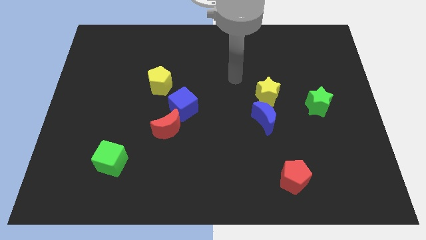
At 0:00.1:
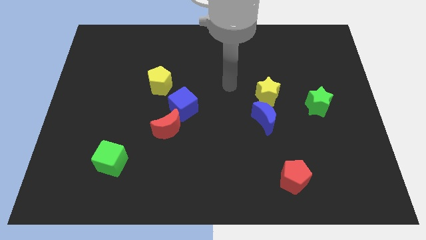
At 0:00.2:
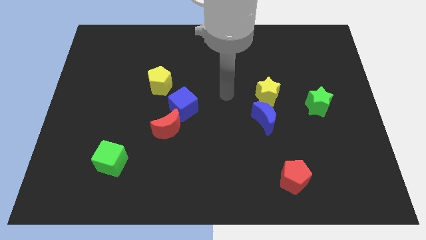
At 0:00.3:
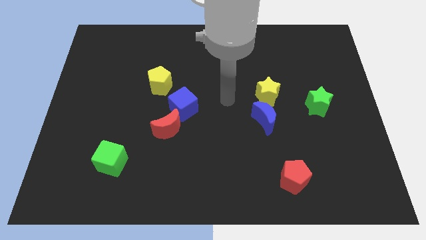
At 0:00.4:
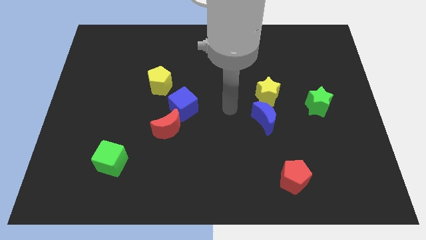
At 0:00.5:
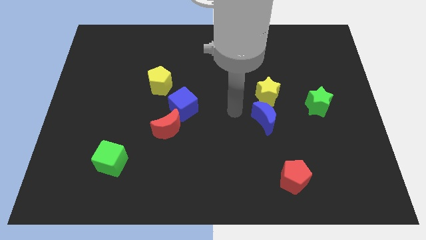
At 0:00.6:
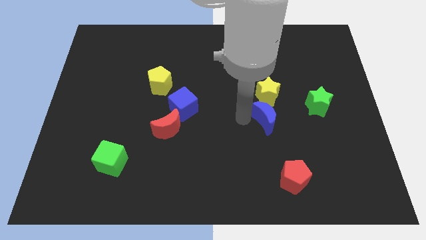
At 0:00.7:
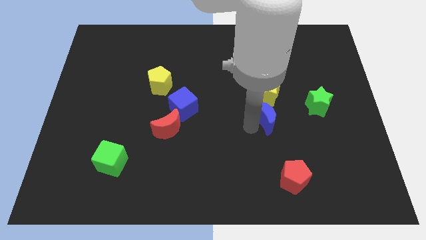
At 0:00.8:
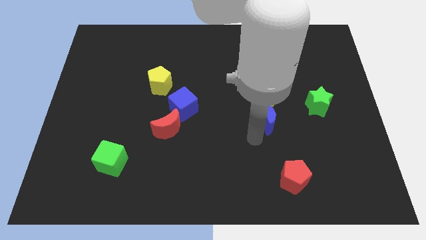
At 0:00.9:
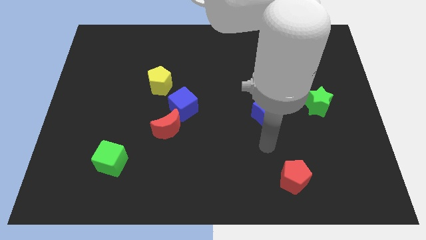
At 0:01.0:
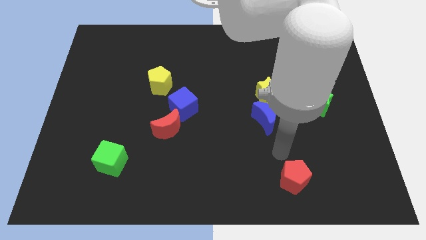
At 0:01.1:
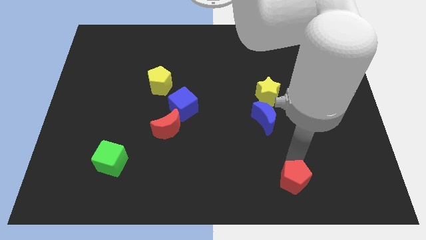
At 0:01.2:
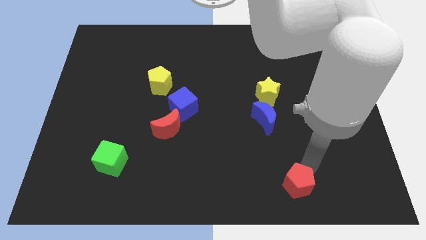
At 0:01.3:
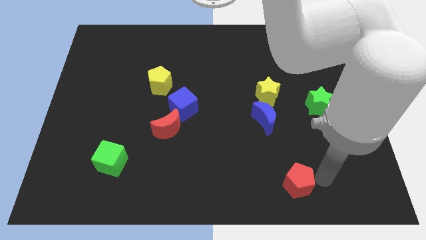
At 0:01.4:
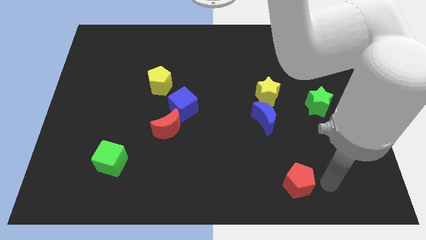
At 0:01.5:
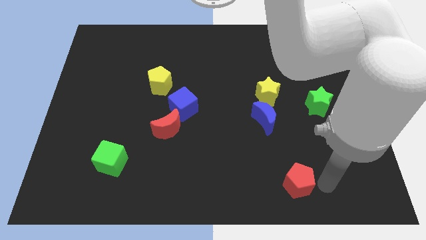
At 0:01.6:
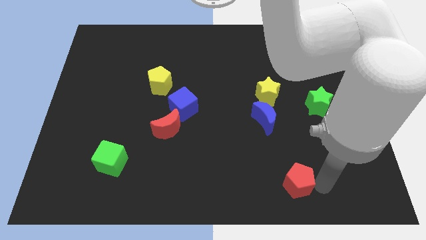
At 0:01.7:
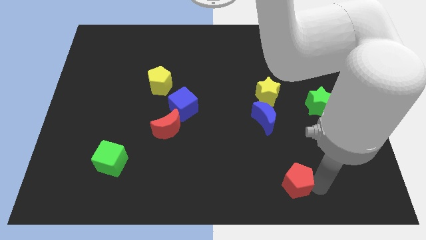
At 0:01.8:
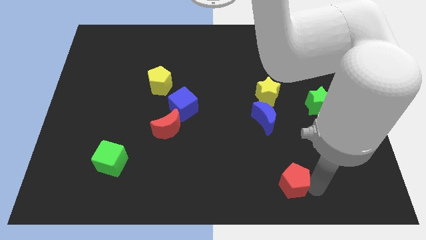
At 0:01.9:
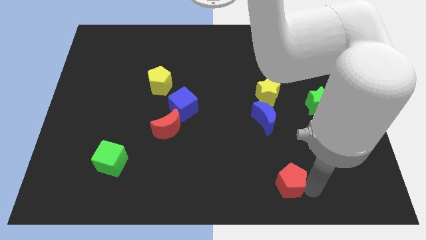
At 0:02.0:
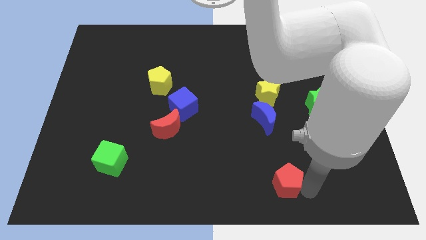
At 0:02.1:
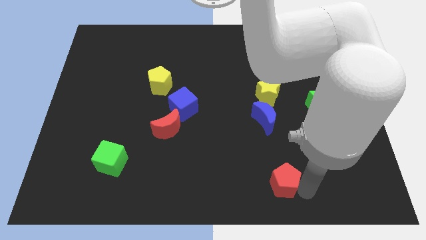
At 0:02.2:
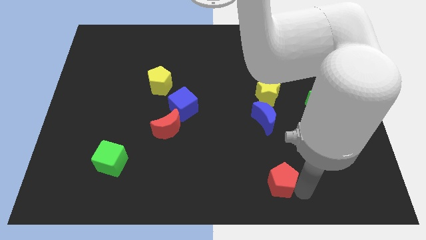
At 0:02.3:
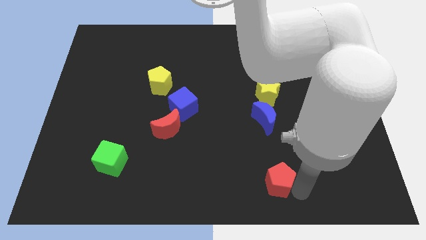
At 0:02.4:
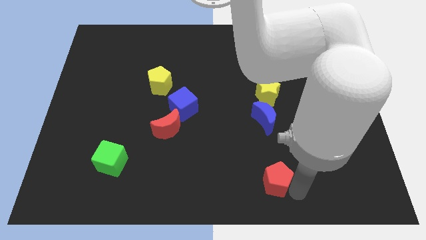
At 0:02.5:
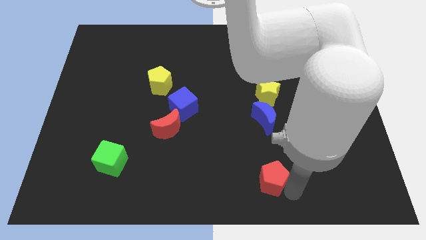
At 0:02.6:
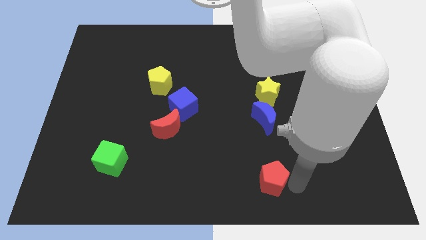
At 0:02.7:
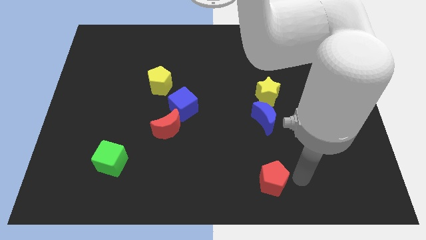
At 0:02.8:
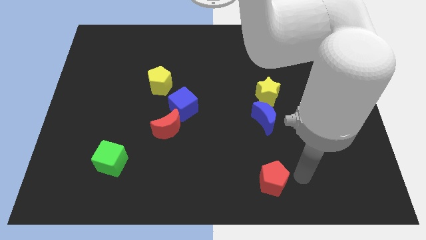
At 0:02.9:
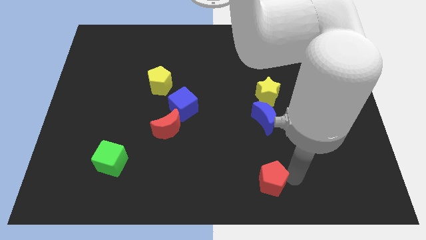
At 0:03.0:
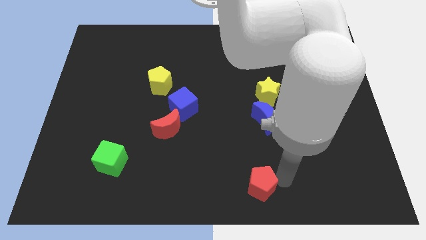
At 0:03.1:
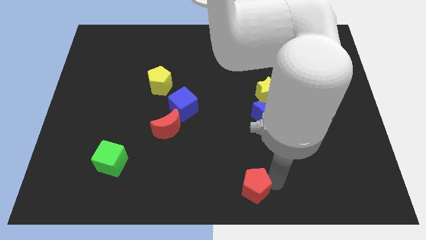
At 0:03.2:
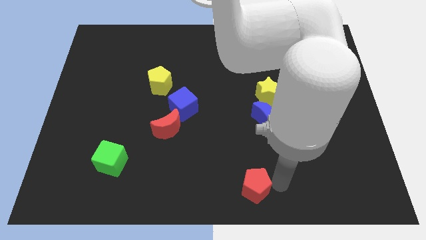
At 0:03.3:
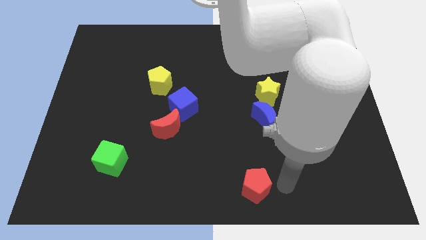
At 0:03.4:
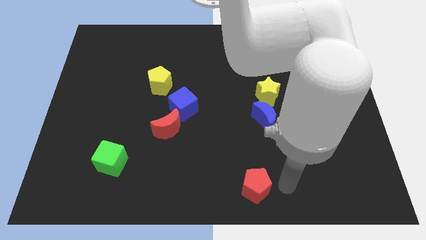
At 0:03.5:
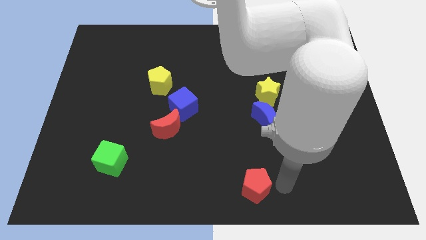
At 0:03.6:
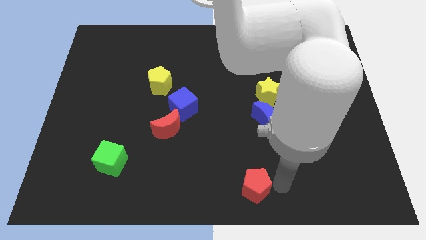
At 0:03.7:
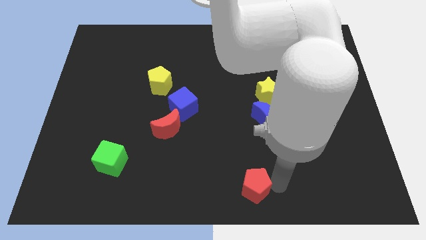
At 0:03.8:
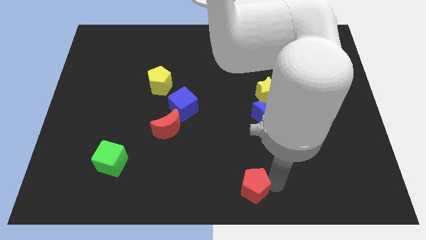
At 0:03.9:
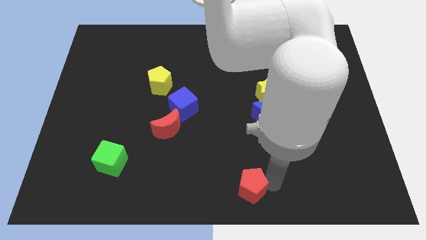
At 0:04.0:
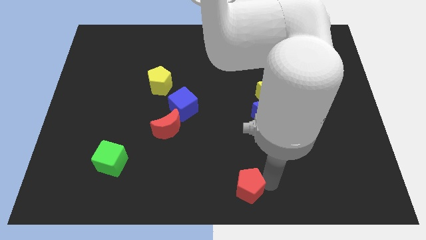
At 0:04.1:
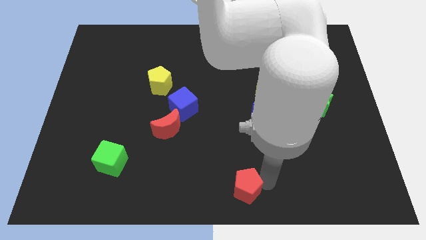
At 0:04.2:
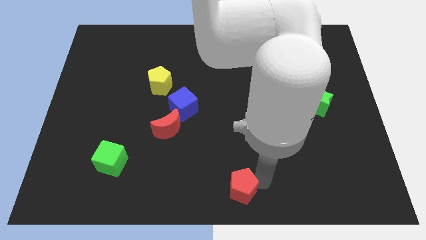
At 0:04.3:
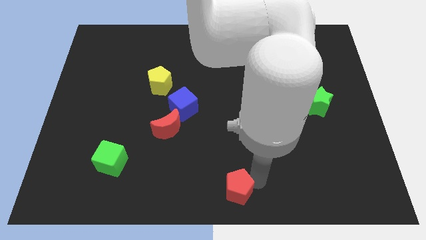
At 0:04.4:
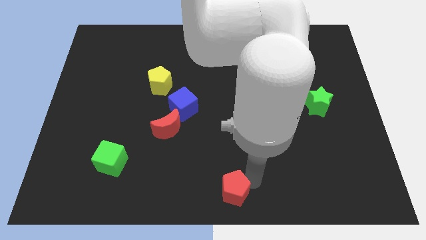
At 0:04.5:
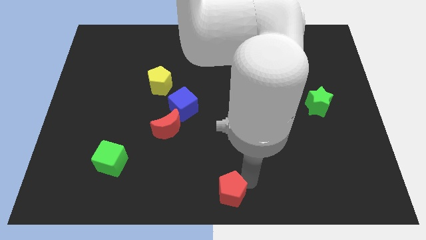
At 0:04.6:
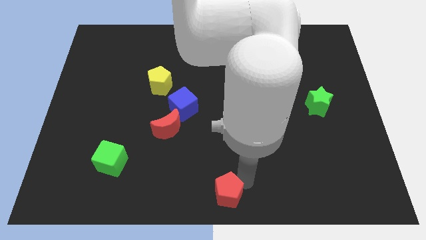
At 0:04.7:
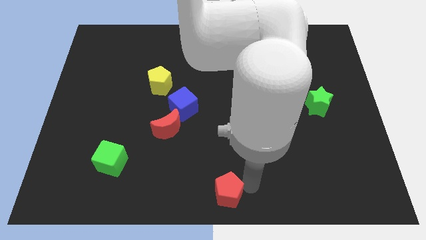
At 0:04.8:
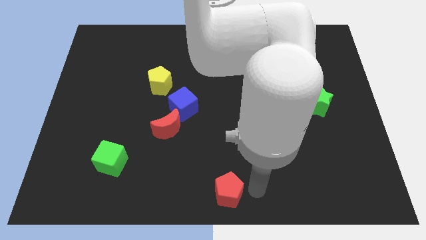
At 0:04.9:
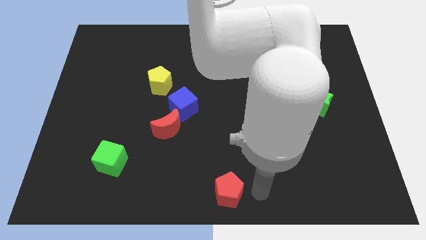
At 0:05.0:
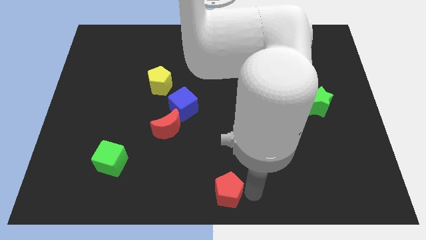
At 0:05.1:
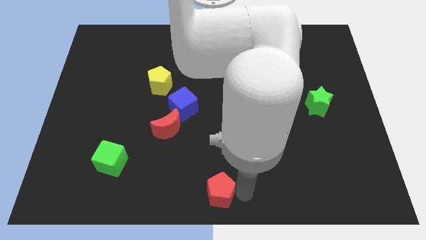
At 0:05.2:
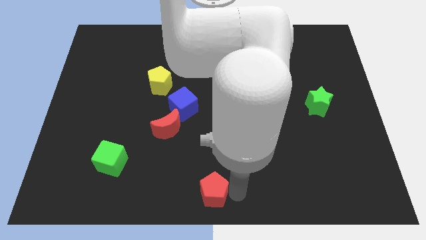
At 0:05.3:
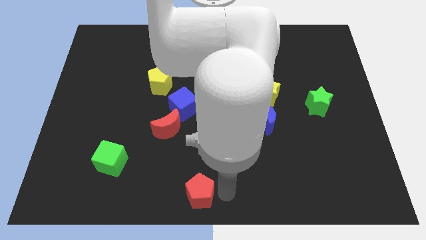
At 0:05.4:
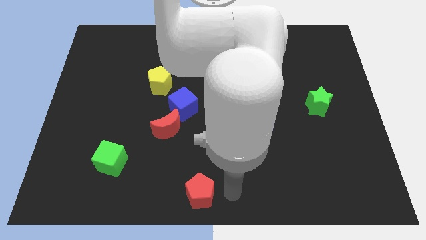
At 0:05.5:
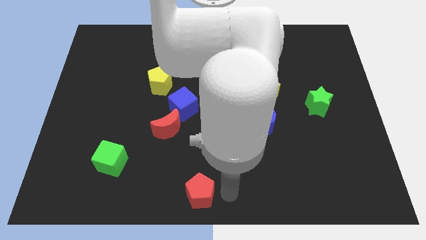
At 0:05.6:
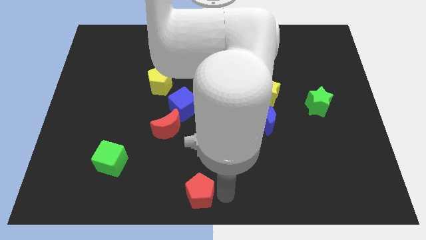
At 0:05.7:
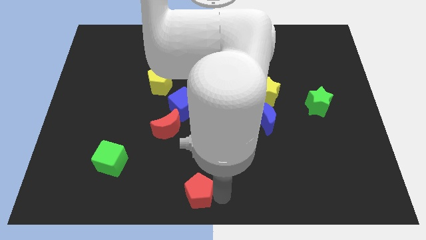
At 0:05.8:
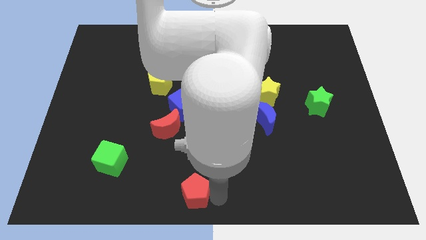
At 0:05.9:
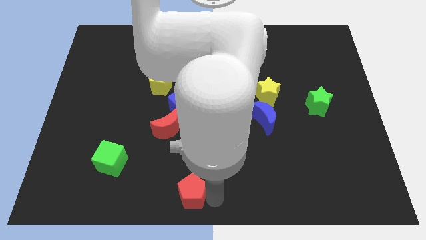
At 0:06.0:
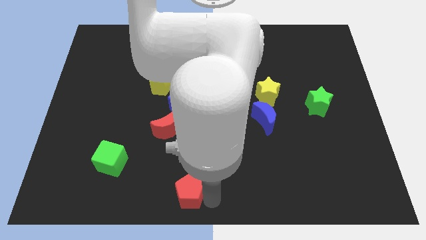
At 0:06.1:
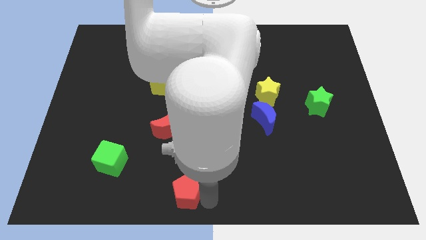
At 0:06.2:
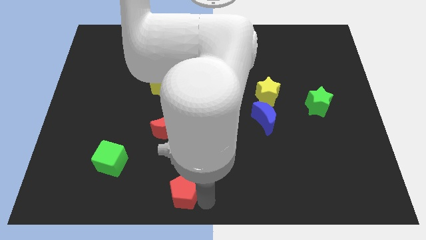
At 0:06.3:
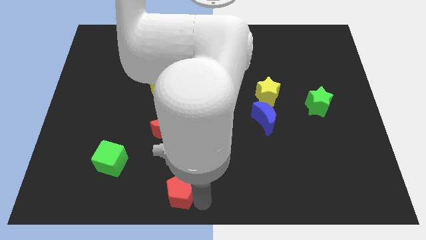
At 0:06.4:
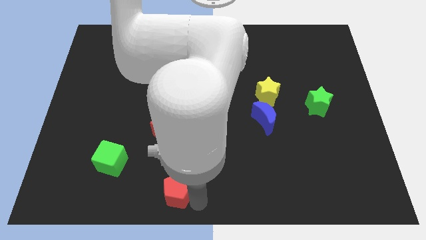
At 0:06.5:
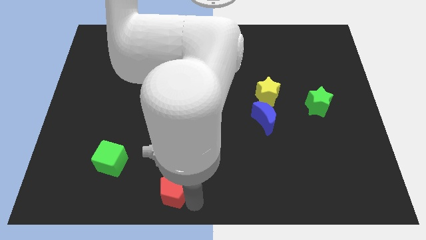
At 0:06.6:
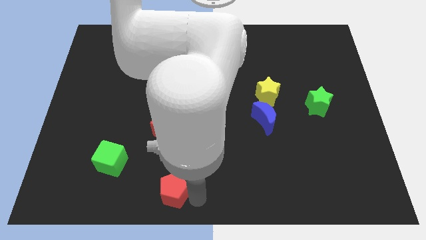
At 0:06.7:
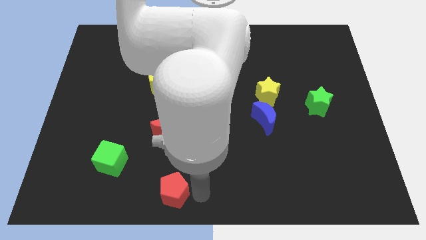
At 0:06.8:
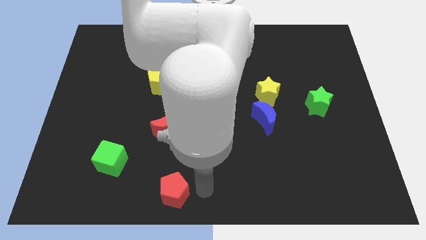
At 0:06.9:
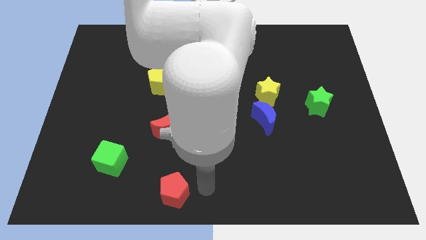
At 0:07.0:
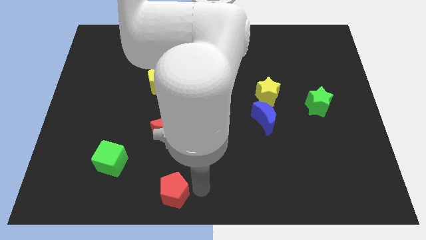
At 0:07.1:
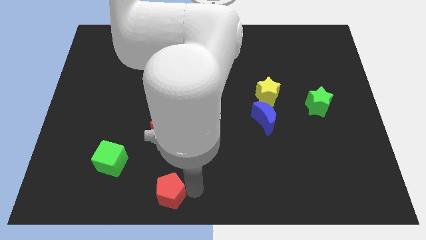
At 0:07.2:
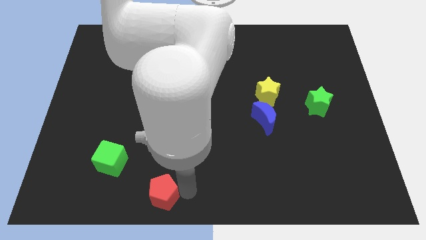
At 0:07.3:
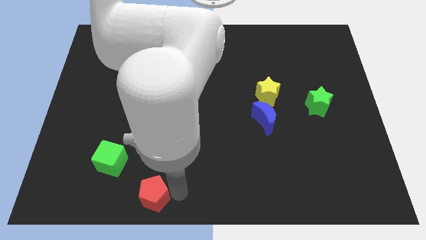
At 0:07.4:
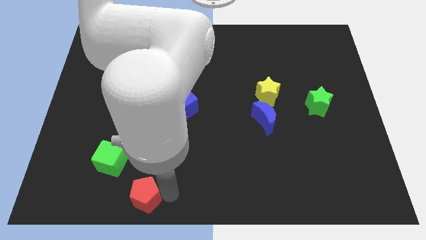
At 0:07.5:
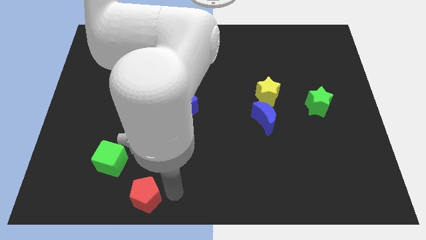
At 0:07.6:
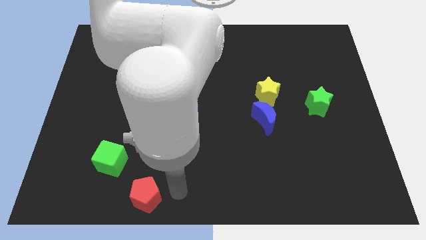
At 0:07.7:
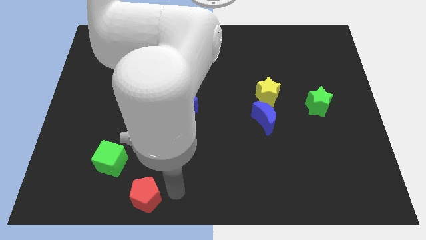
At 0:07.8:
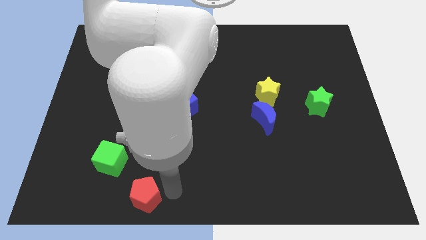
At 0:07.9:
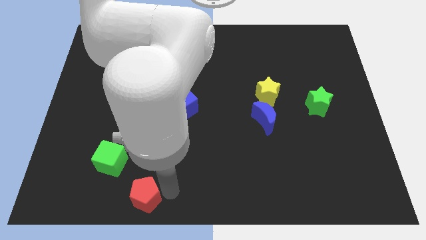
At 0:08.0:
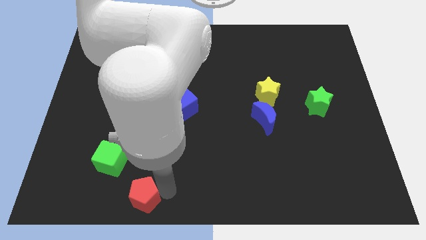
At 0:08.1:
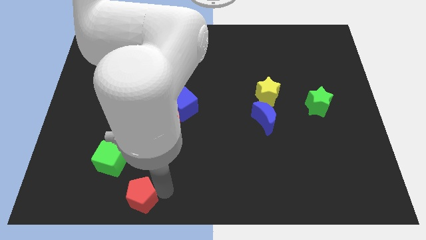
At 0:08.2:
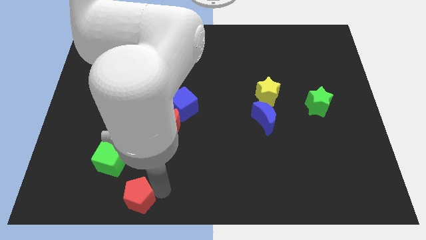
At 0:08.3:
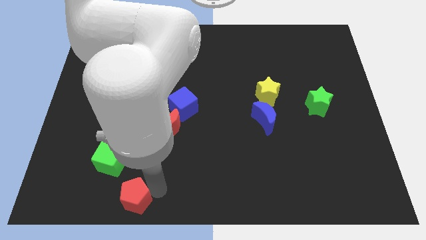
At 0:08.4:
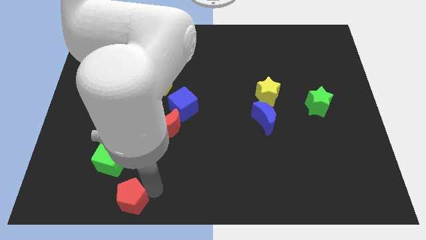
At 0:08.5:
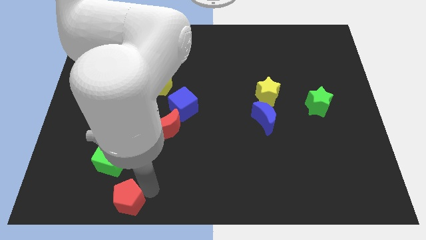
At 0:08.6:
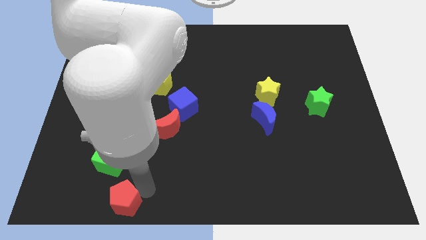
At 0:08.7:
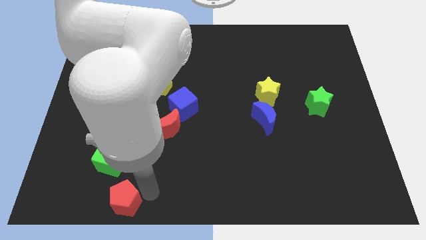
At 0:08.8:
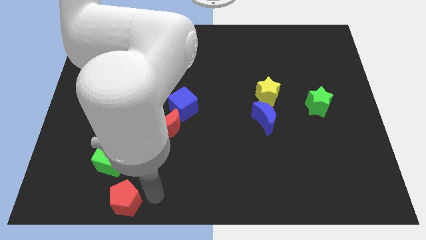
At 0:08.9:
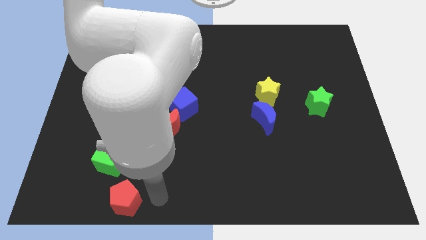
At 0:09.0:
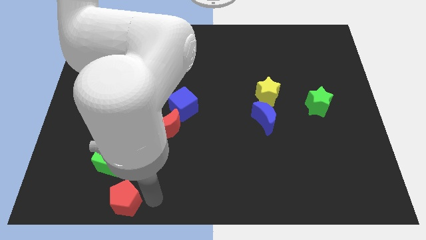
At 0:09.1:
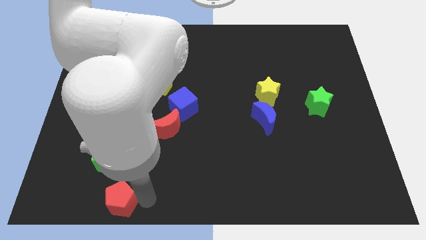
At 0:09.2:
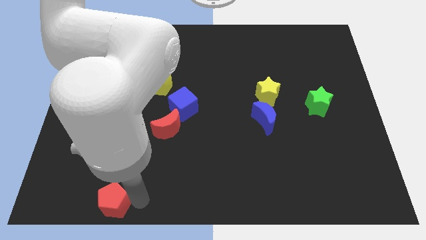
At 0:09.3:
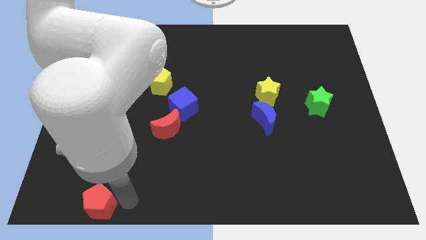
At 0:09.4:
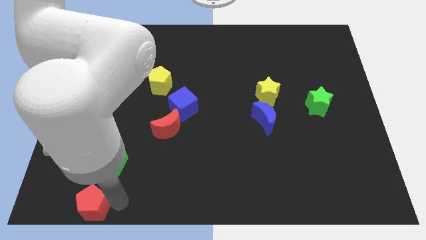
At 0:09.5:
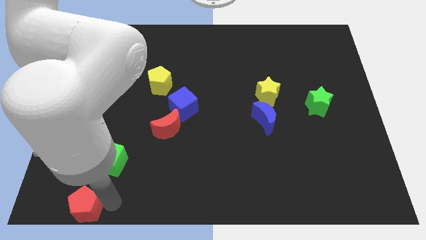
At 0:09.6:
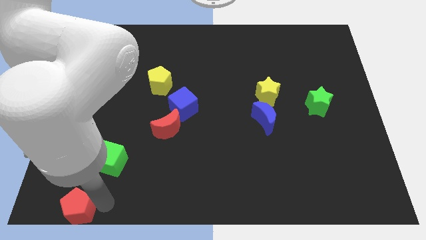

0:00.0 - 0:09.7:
put the red pentagon to the bottom left
